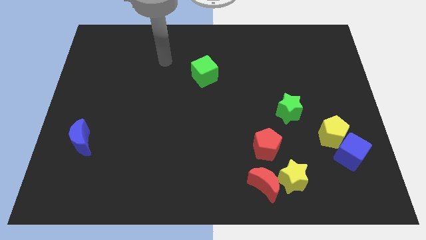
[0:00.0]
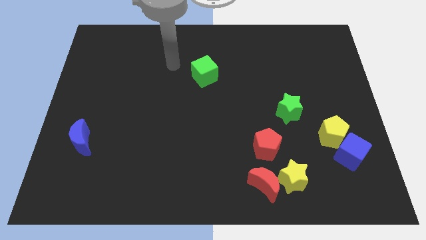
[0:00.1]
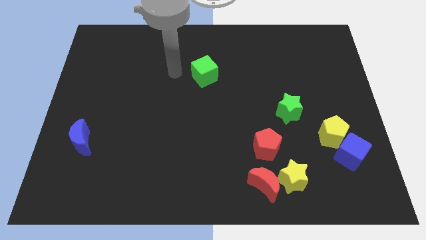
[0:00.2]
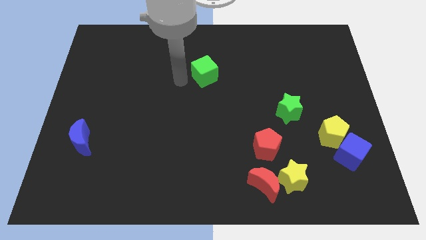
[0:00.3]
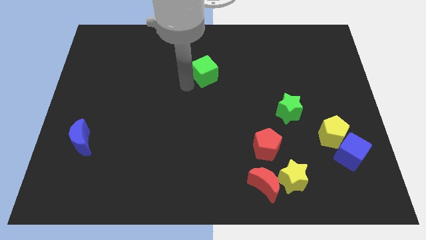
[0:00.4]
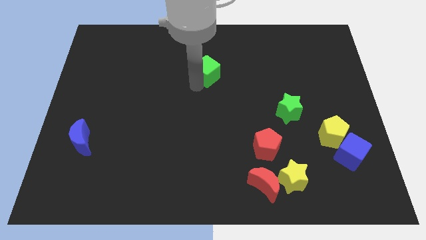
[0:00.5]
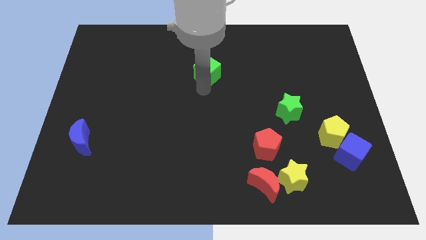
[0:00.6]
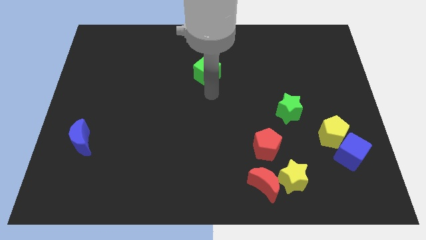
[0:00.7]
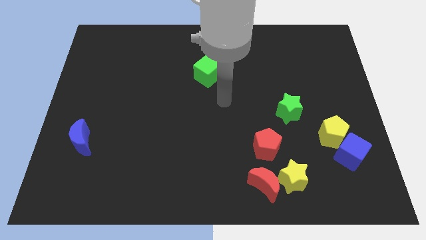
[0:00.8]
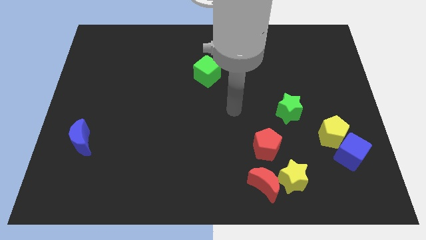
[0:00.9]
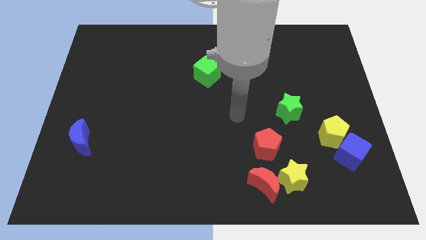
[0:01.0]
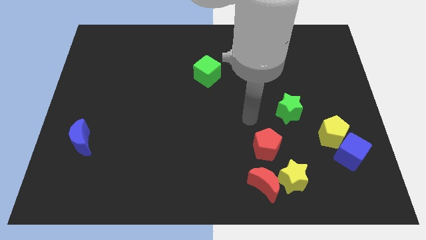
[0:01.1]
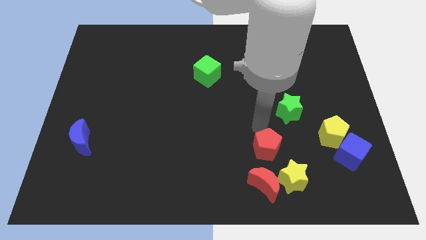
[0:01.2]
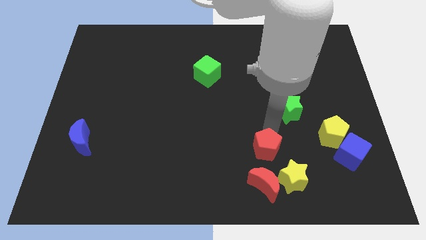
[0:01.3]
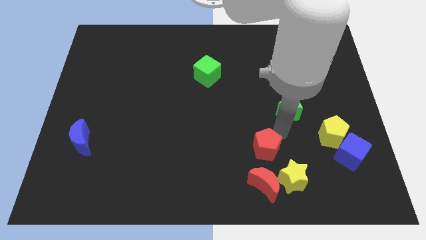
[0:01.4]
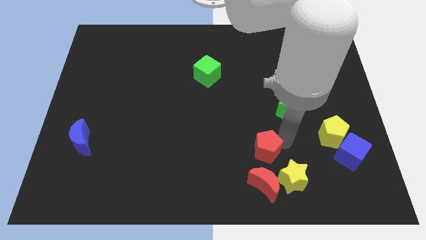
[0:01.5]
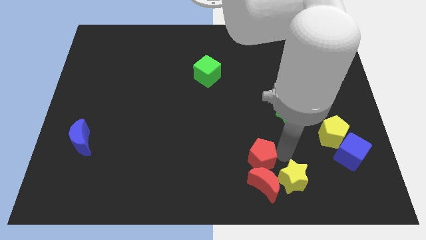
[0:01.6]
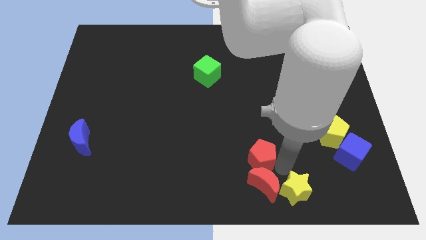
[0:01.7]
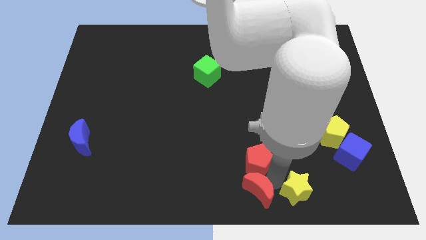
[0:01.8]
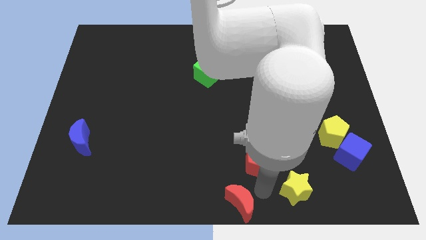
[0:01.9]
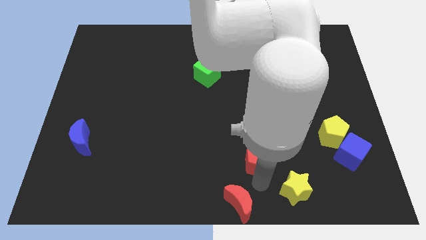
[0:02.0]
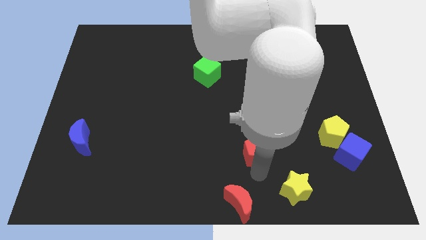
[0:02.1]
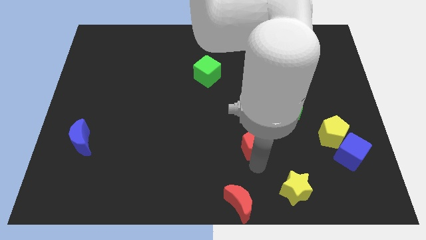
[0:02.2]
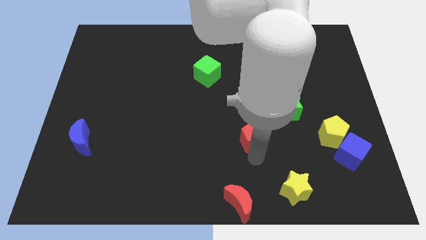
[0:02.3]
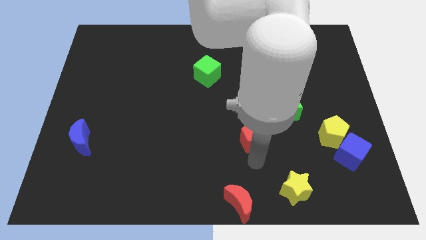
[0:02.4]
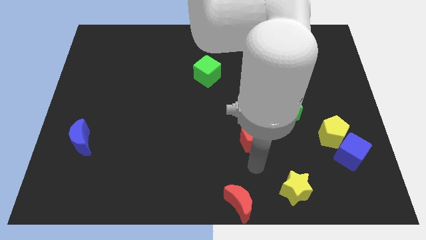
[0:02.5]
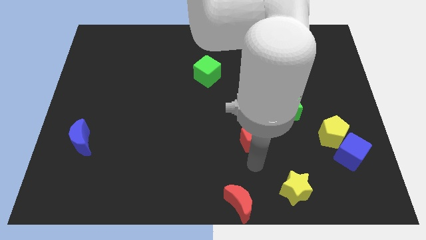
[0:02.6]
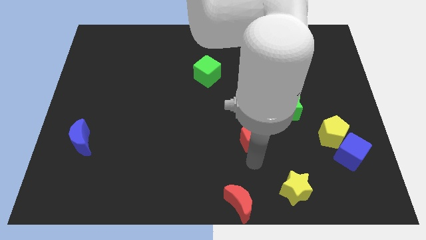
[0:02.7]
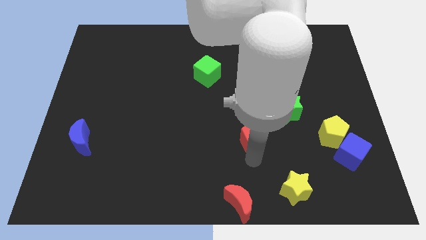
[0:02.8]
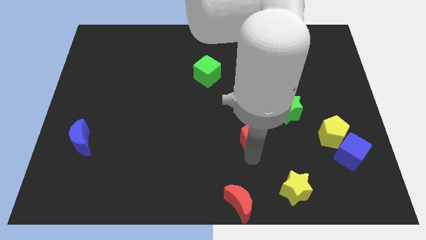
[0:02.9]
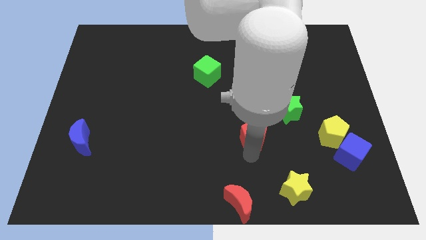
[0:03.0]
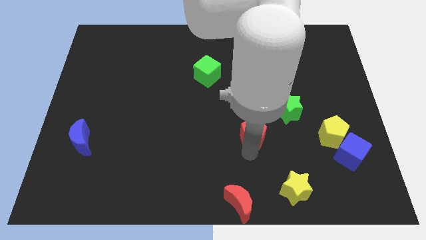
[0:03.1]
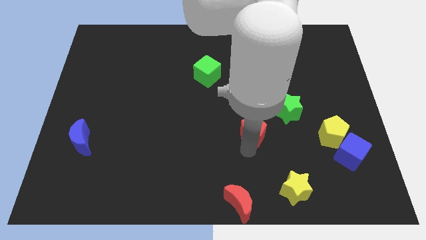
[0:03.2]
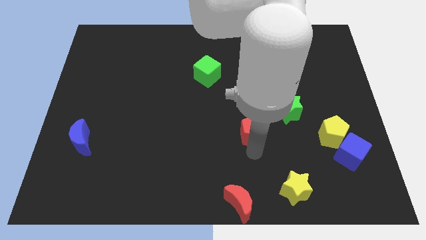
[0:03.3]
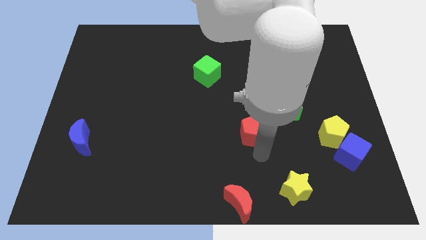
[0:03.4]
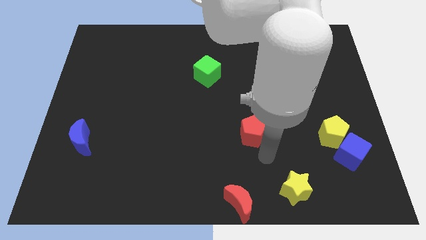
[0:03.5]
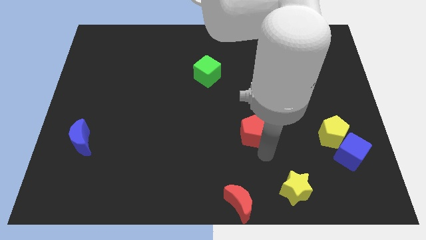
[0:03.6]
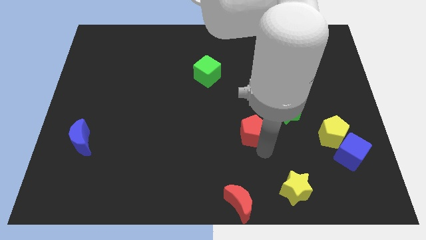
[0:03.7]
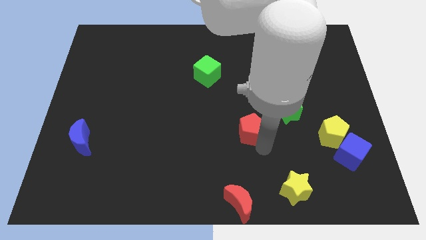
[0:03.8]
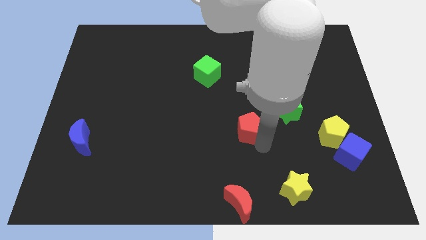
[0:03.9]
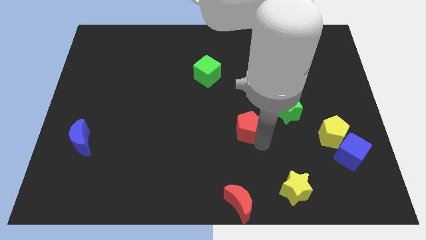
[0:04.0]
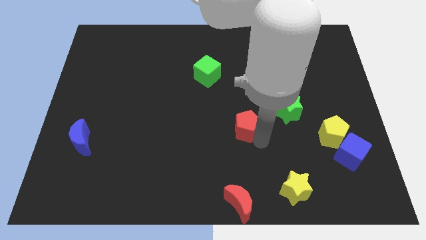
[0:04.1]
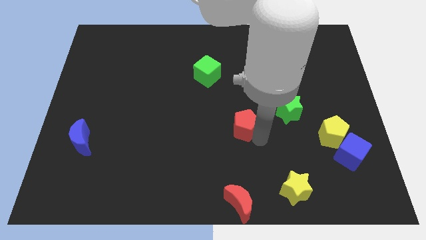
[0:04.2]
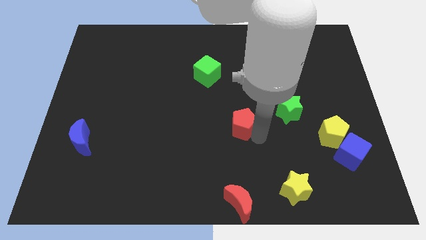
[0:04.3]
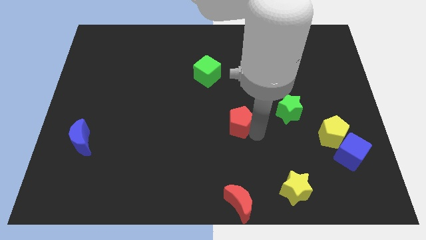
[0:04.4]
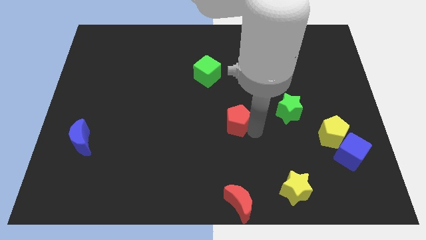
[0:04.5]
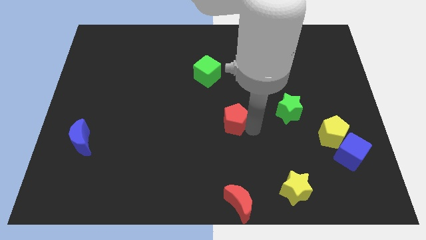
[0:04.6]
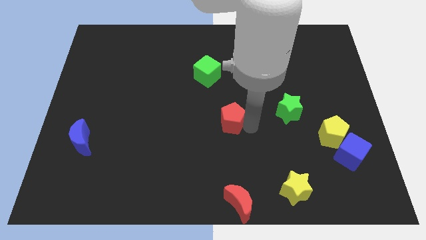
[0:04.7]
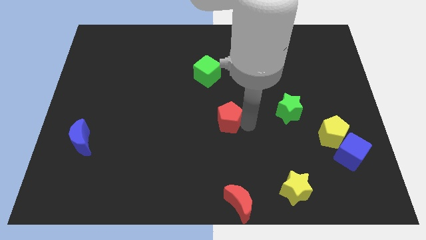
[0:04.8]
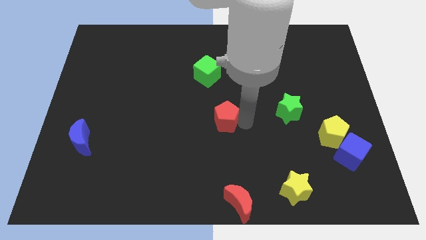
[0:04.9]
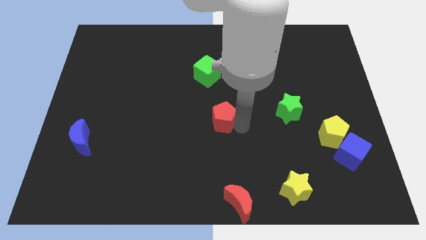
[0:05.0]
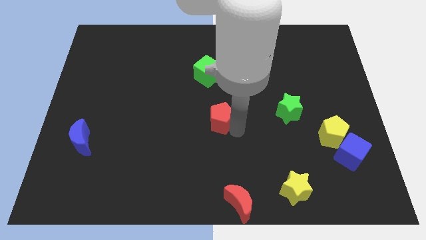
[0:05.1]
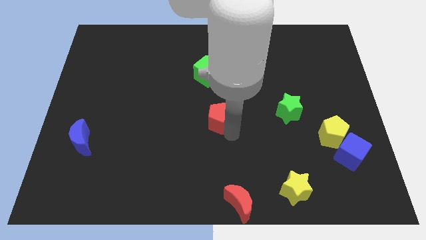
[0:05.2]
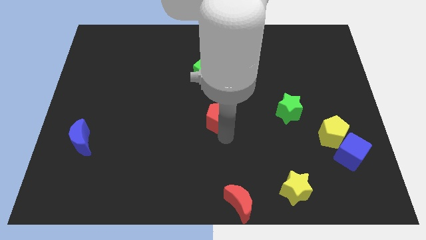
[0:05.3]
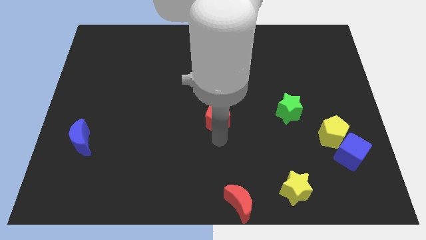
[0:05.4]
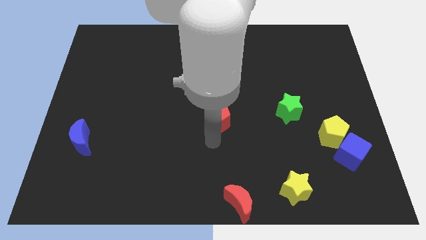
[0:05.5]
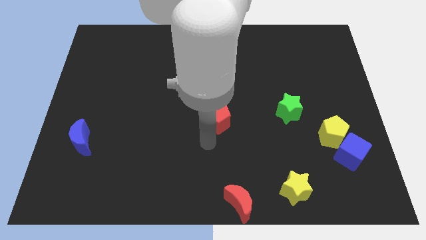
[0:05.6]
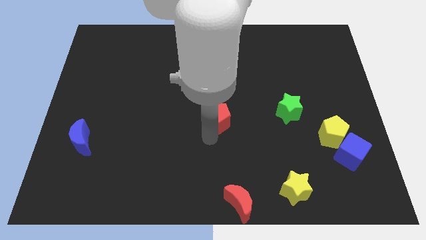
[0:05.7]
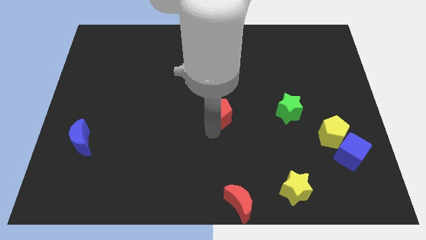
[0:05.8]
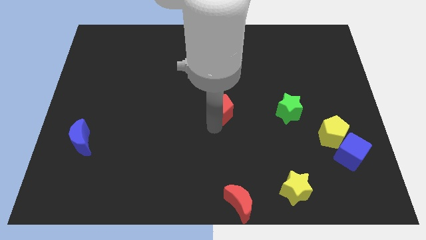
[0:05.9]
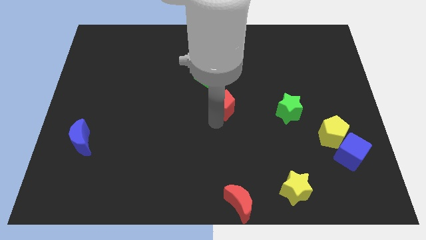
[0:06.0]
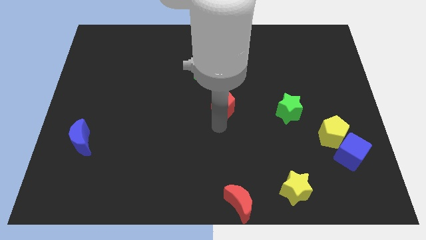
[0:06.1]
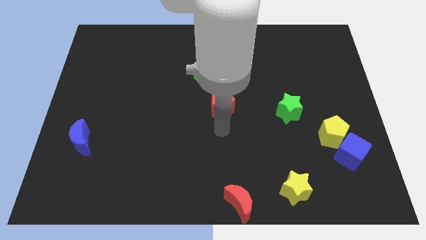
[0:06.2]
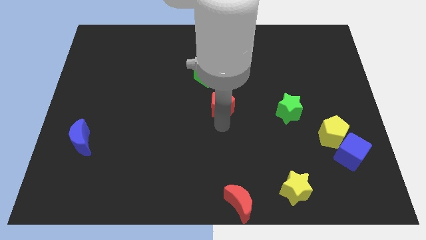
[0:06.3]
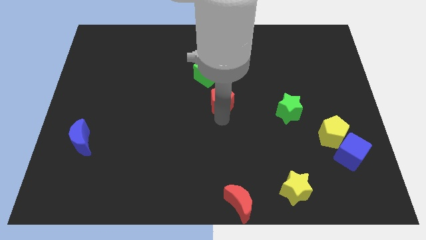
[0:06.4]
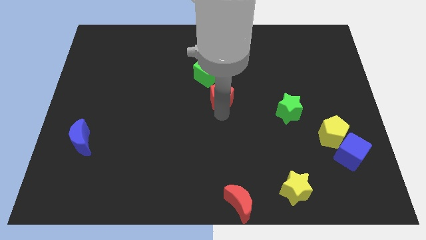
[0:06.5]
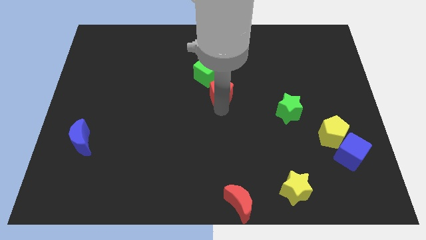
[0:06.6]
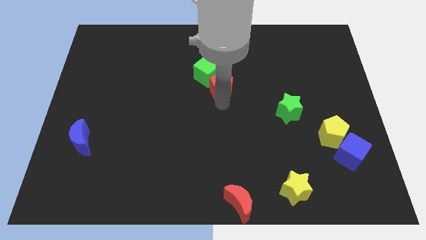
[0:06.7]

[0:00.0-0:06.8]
push the red pentagon towards the green cube
